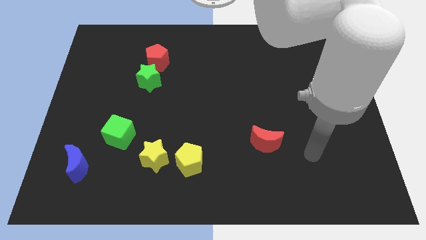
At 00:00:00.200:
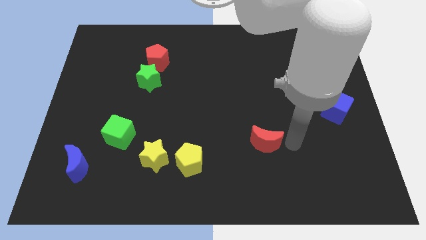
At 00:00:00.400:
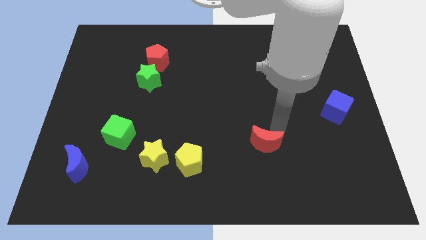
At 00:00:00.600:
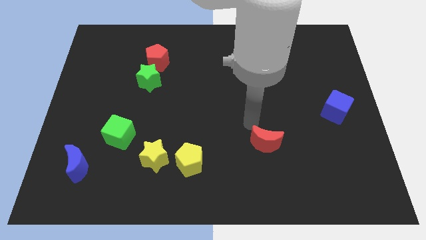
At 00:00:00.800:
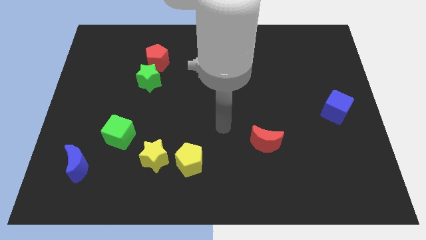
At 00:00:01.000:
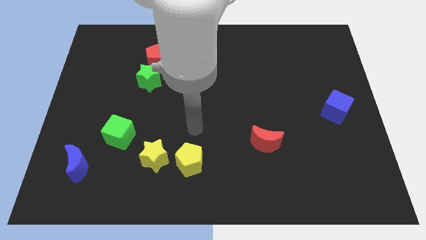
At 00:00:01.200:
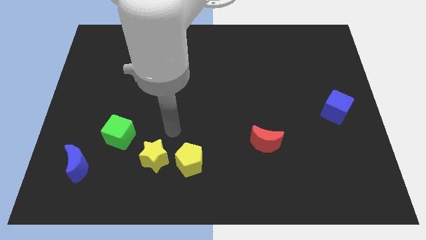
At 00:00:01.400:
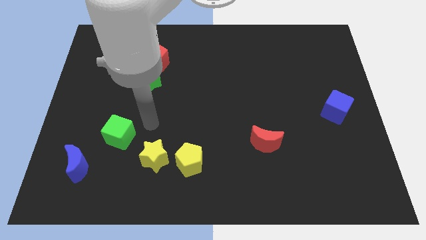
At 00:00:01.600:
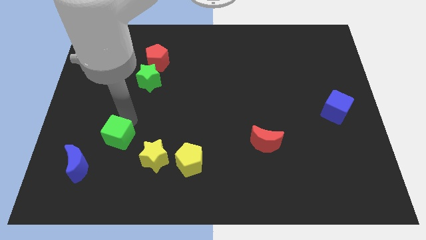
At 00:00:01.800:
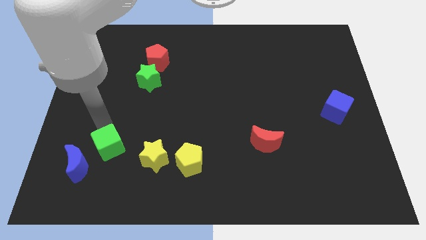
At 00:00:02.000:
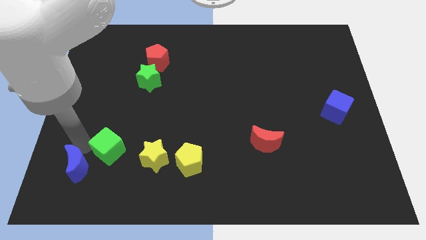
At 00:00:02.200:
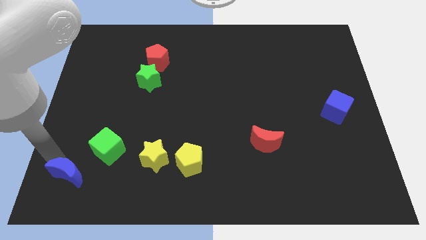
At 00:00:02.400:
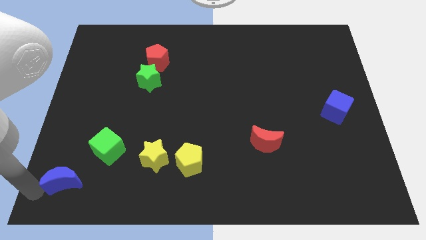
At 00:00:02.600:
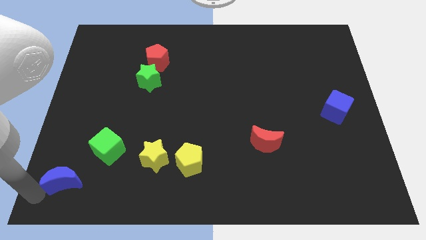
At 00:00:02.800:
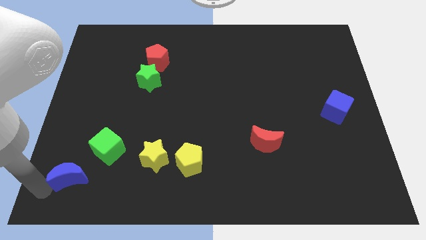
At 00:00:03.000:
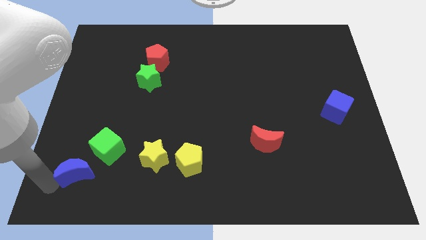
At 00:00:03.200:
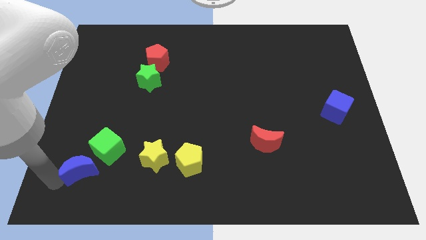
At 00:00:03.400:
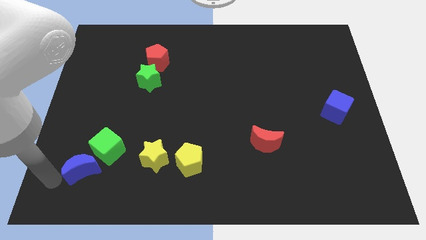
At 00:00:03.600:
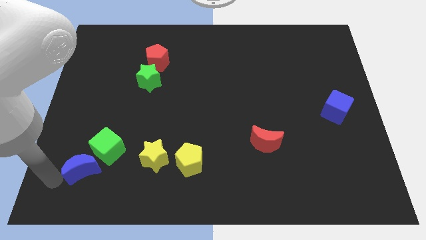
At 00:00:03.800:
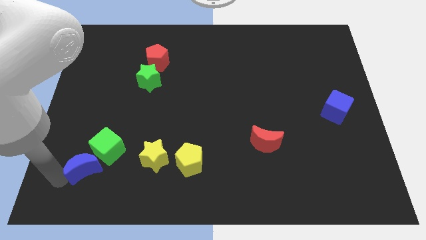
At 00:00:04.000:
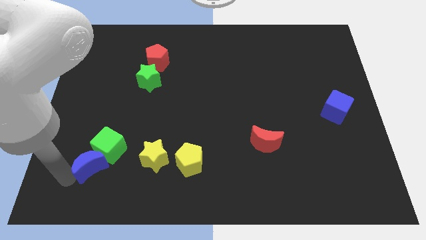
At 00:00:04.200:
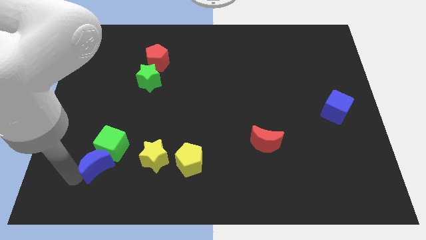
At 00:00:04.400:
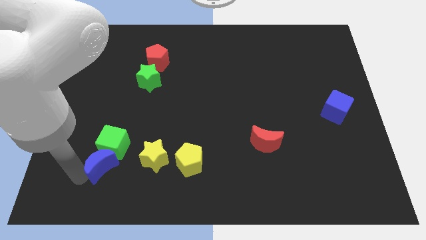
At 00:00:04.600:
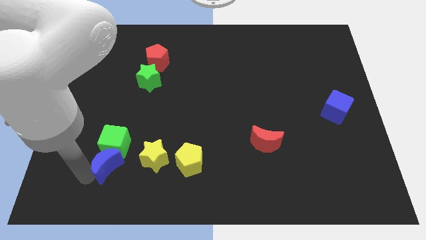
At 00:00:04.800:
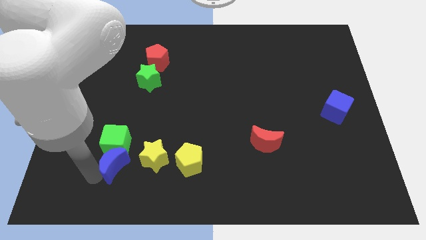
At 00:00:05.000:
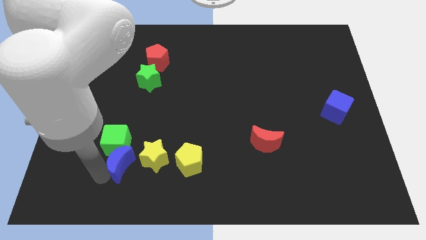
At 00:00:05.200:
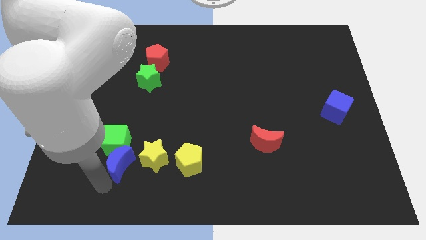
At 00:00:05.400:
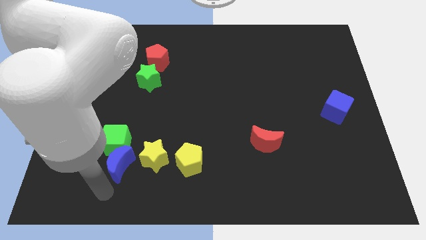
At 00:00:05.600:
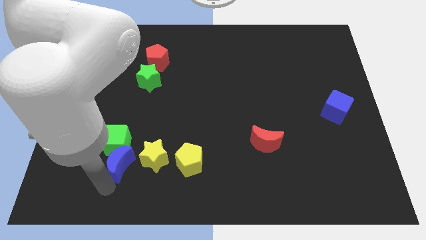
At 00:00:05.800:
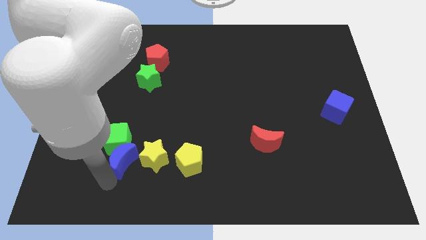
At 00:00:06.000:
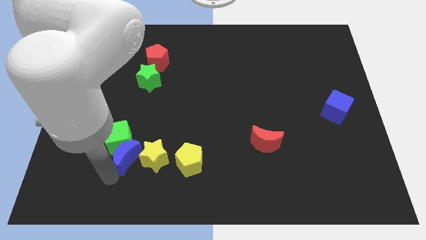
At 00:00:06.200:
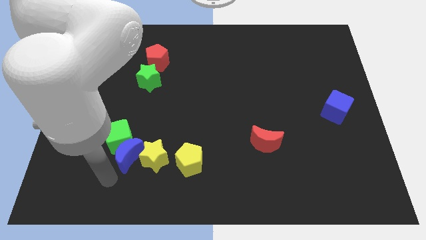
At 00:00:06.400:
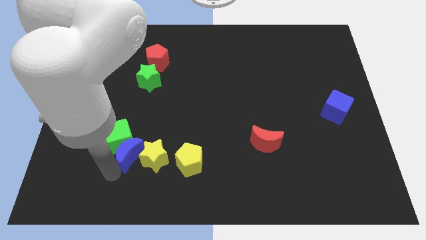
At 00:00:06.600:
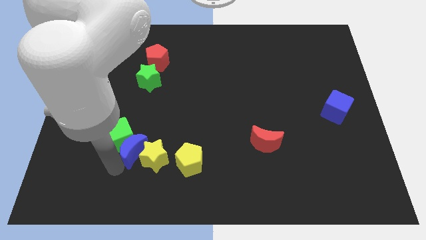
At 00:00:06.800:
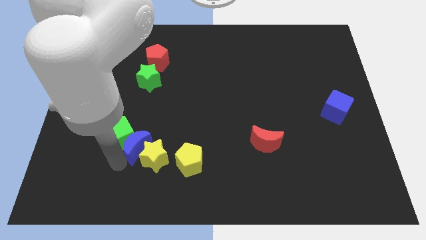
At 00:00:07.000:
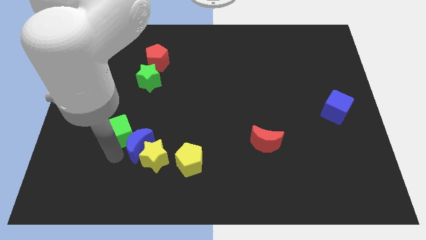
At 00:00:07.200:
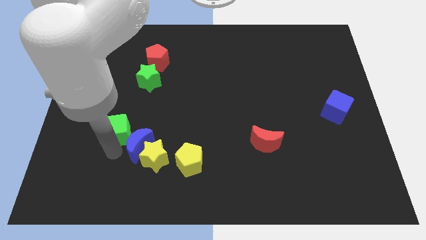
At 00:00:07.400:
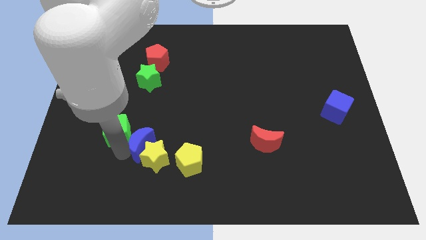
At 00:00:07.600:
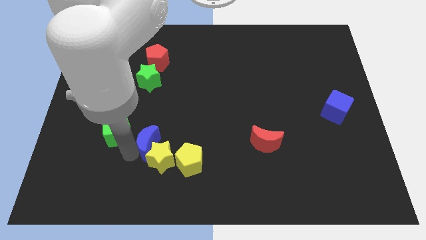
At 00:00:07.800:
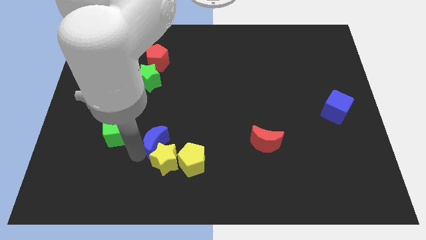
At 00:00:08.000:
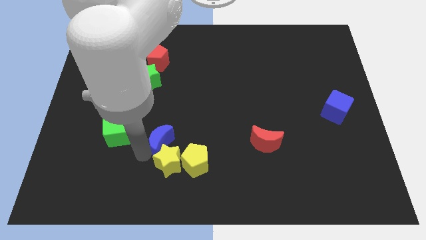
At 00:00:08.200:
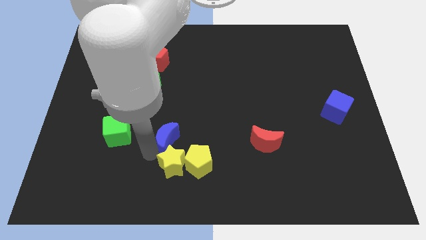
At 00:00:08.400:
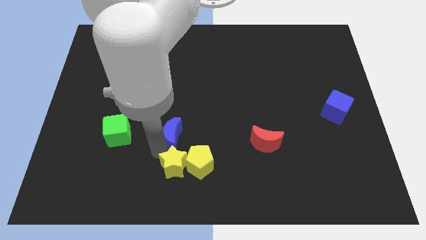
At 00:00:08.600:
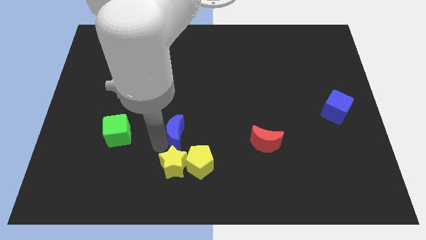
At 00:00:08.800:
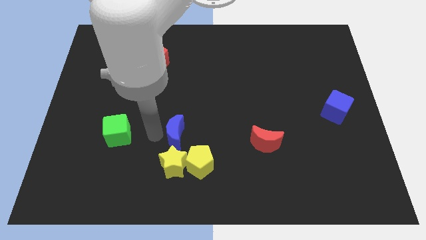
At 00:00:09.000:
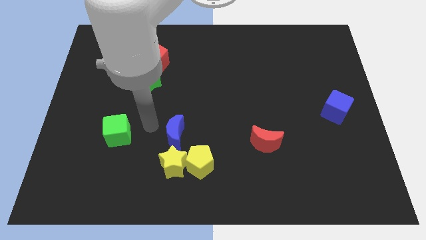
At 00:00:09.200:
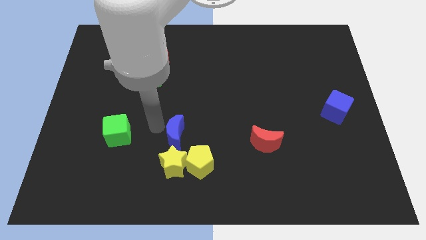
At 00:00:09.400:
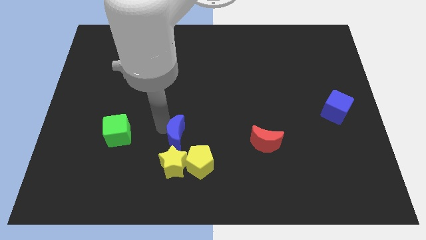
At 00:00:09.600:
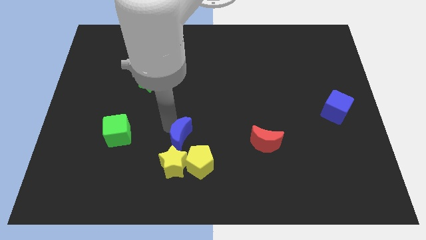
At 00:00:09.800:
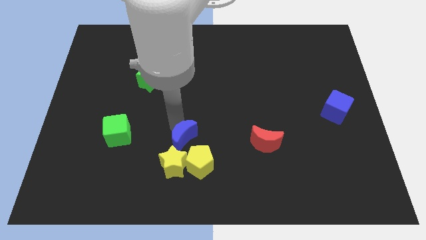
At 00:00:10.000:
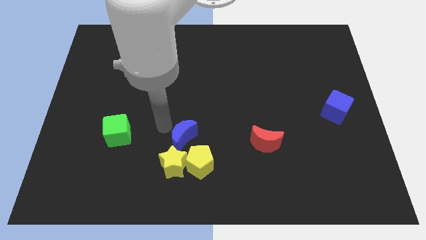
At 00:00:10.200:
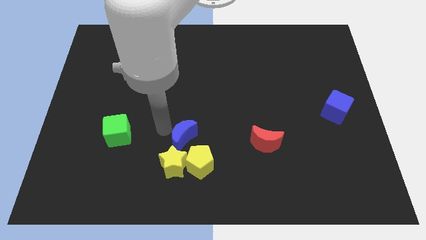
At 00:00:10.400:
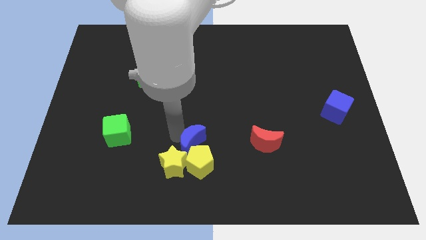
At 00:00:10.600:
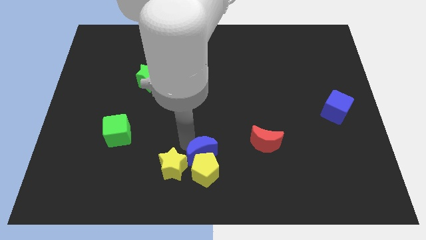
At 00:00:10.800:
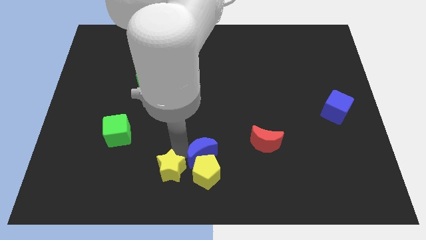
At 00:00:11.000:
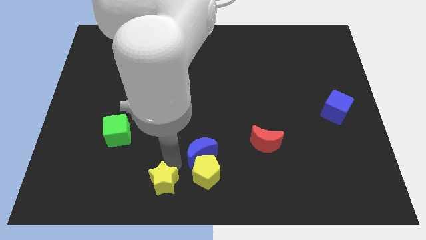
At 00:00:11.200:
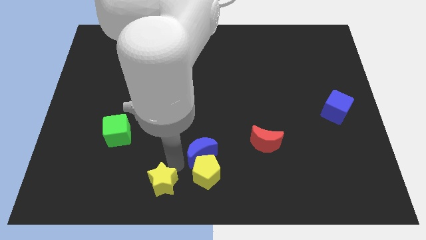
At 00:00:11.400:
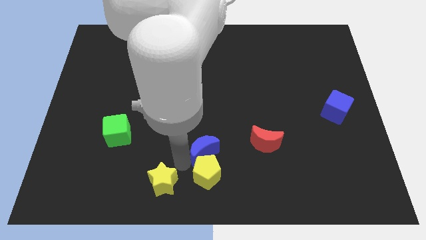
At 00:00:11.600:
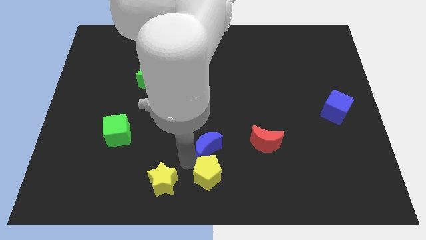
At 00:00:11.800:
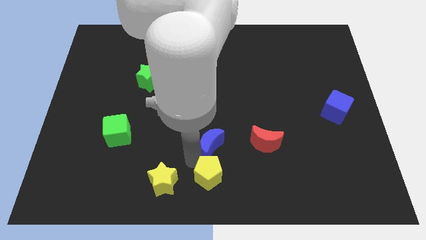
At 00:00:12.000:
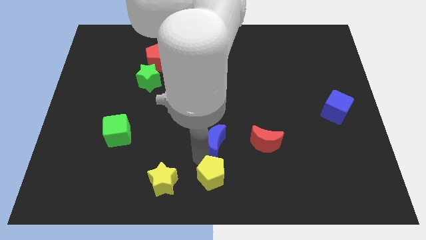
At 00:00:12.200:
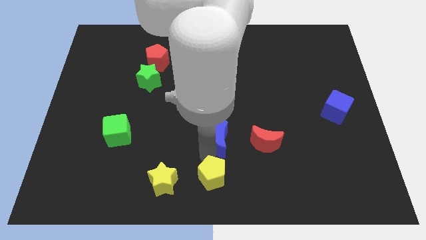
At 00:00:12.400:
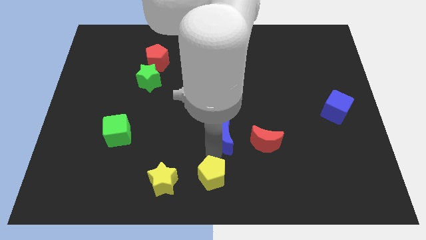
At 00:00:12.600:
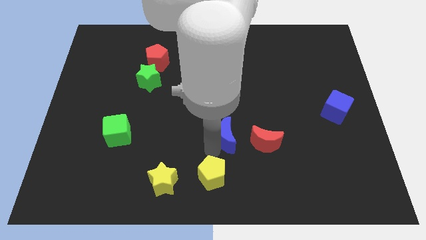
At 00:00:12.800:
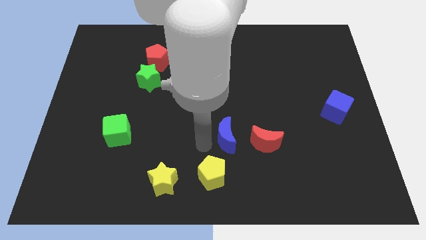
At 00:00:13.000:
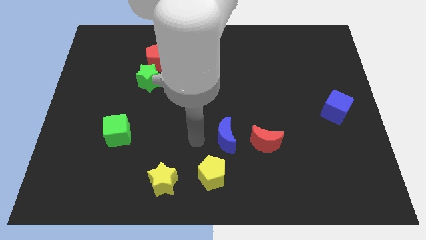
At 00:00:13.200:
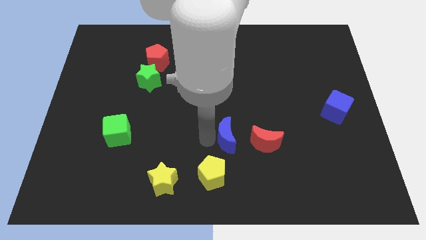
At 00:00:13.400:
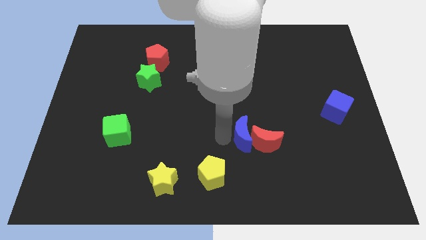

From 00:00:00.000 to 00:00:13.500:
move the blue moon close to the red moon

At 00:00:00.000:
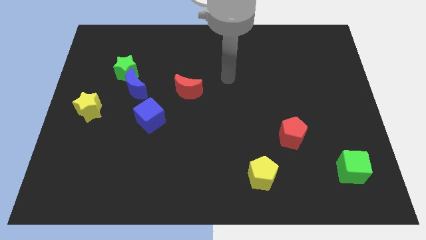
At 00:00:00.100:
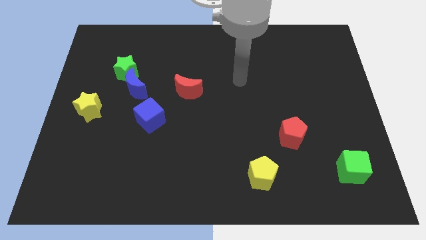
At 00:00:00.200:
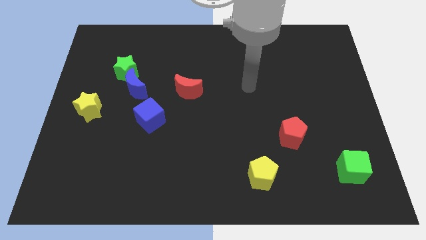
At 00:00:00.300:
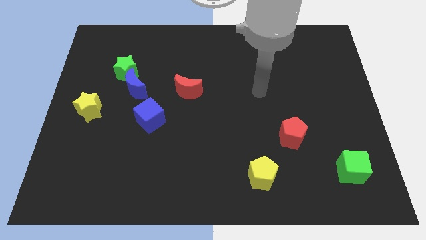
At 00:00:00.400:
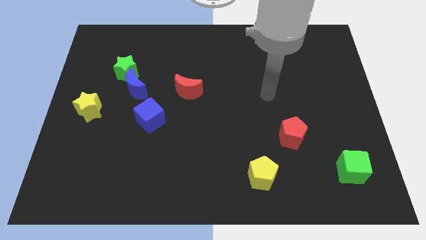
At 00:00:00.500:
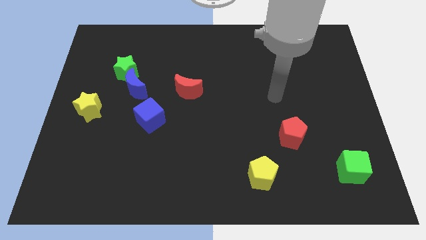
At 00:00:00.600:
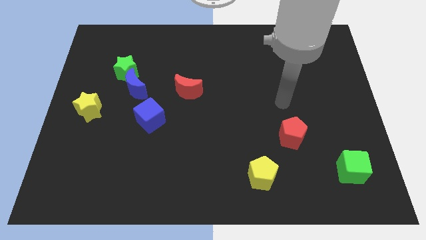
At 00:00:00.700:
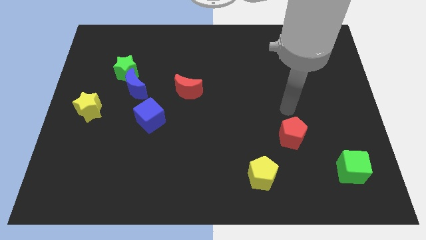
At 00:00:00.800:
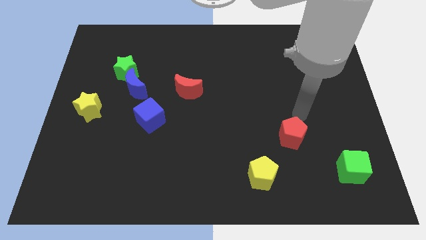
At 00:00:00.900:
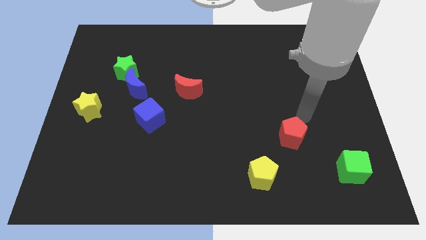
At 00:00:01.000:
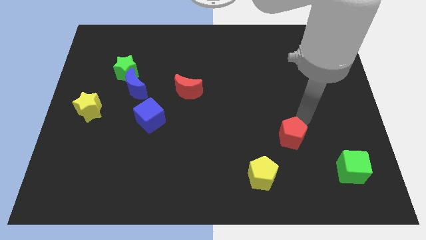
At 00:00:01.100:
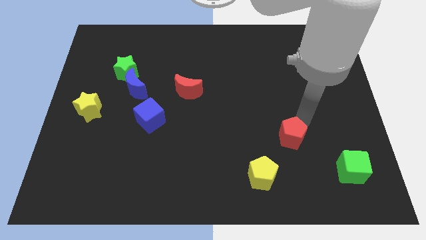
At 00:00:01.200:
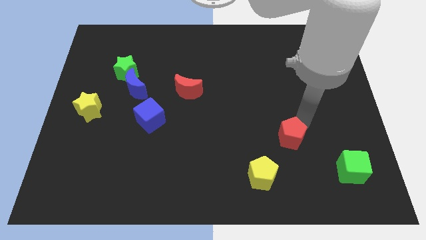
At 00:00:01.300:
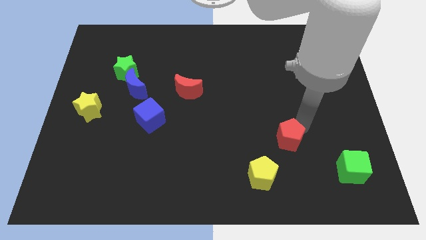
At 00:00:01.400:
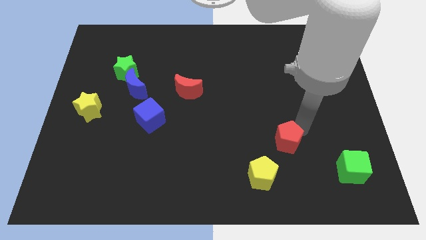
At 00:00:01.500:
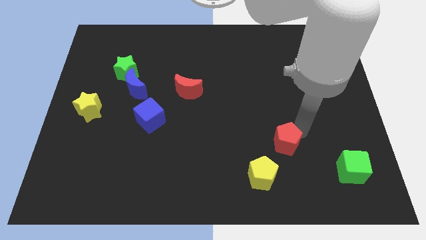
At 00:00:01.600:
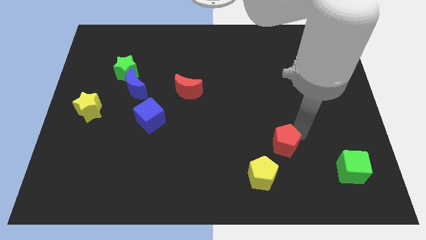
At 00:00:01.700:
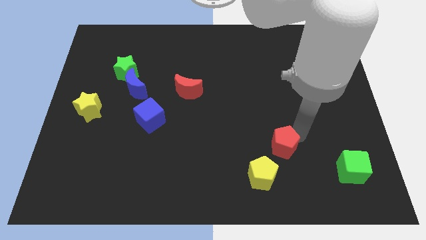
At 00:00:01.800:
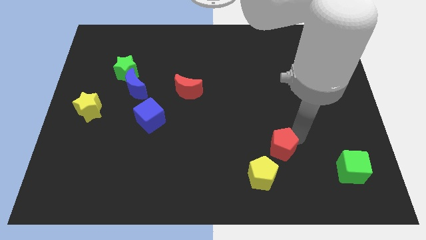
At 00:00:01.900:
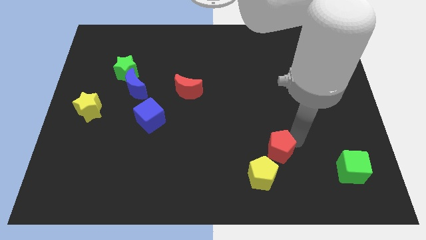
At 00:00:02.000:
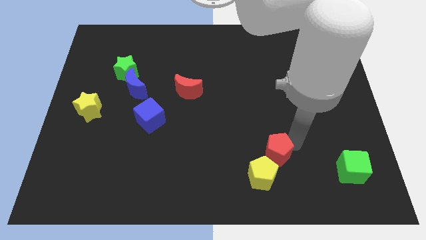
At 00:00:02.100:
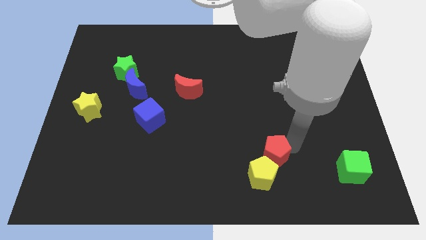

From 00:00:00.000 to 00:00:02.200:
move the red pentagon towards the yellow pentagon
